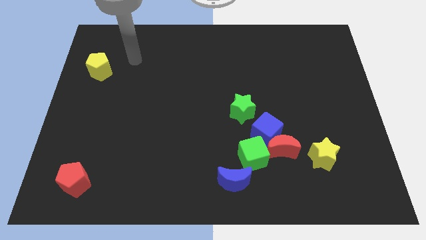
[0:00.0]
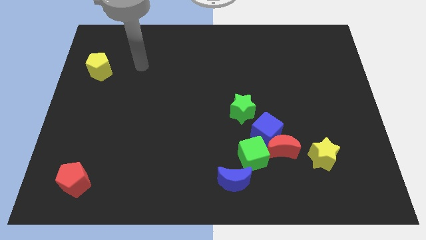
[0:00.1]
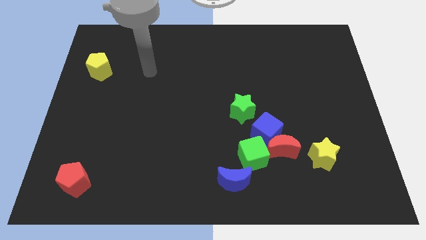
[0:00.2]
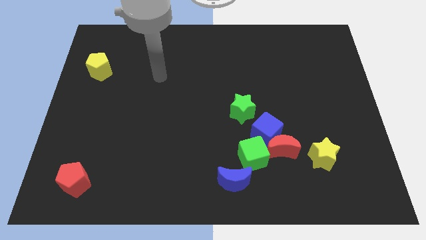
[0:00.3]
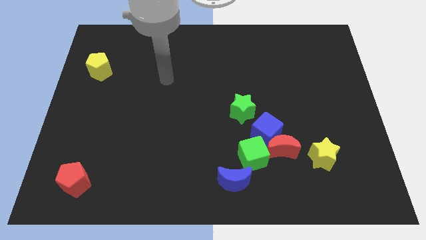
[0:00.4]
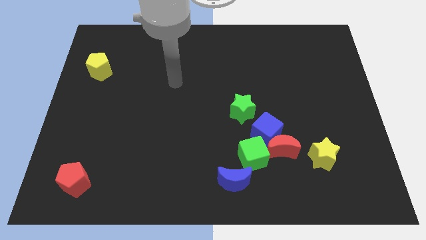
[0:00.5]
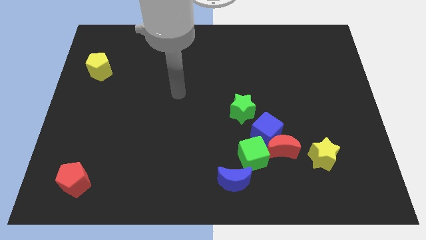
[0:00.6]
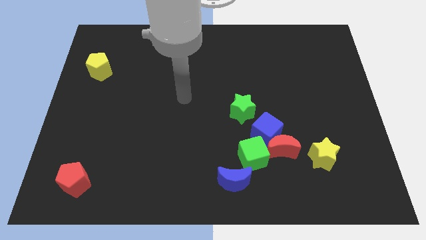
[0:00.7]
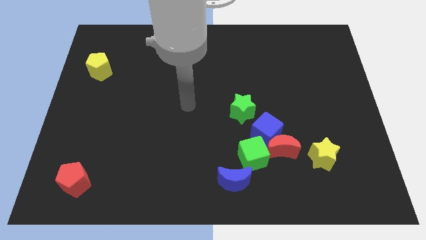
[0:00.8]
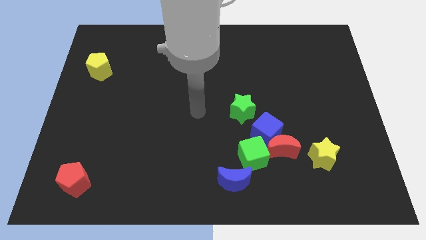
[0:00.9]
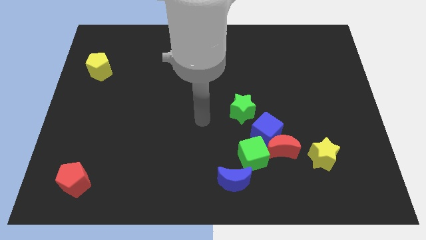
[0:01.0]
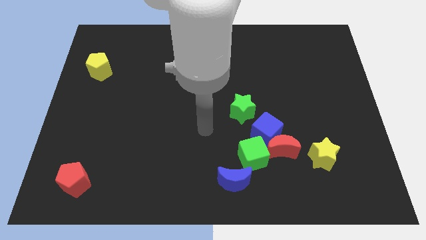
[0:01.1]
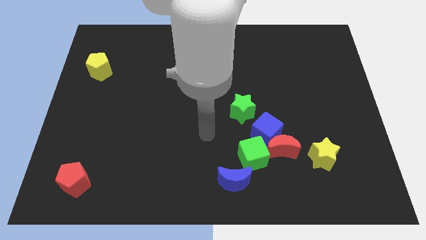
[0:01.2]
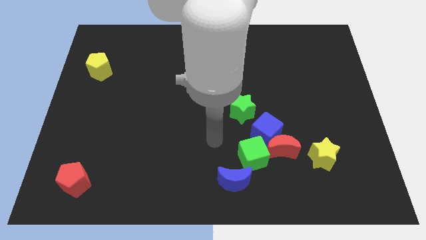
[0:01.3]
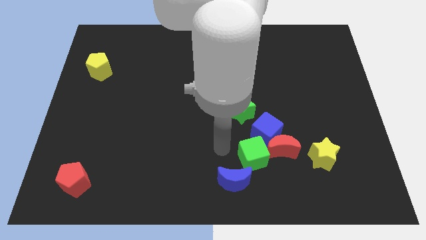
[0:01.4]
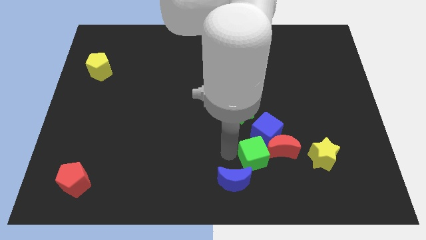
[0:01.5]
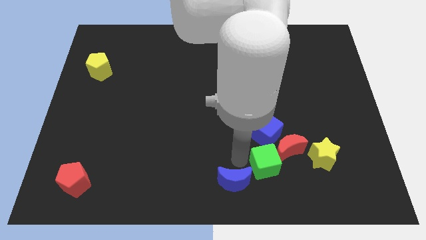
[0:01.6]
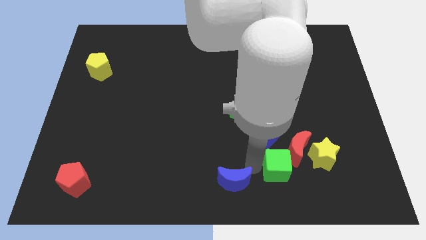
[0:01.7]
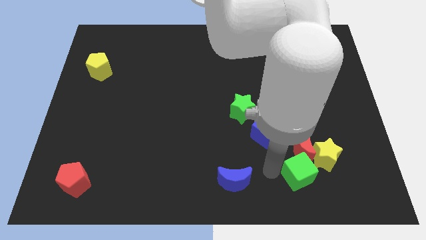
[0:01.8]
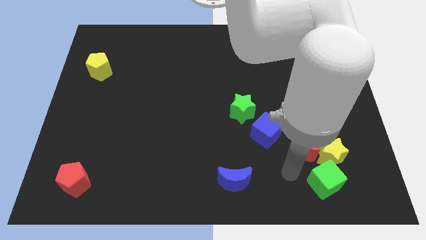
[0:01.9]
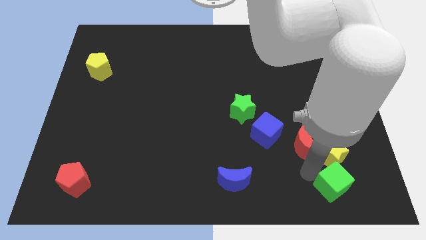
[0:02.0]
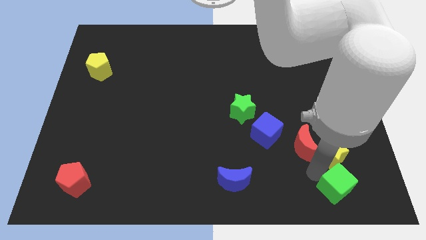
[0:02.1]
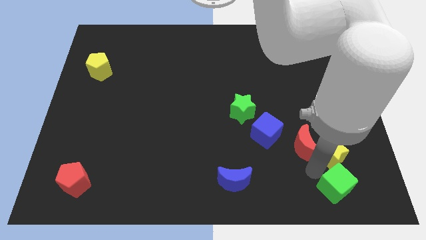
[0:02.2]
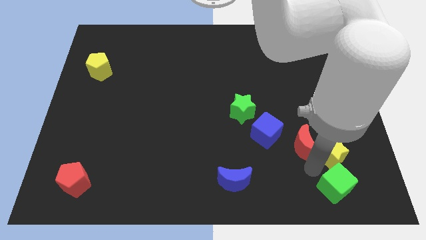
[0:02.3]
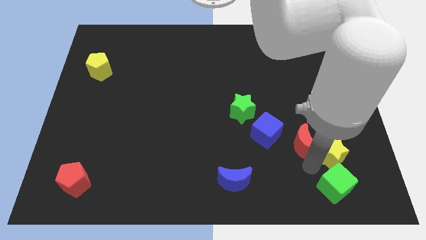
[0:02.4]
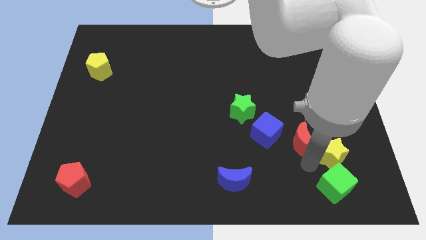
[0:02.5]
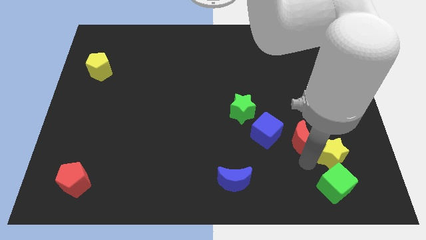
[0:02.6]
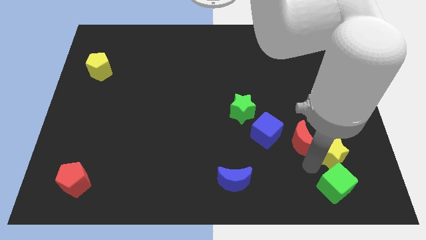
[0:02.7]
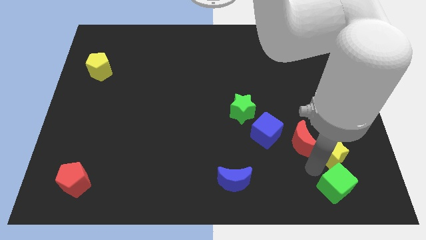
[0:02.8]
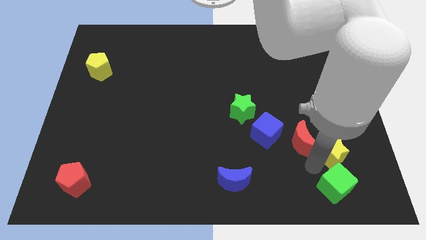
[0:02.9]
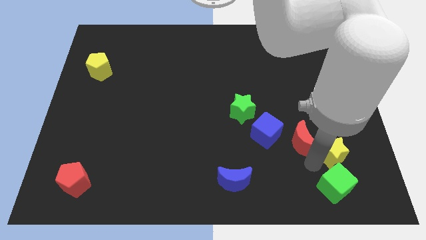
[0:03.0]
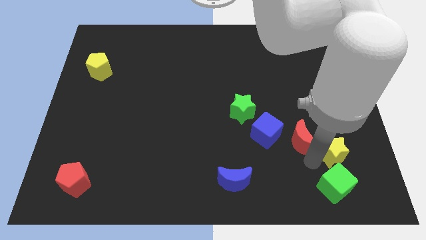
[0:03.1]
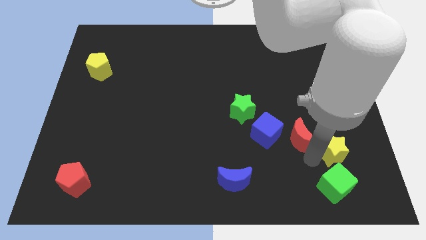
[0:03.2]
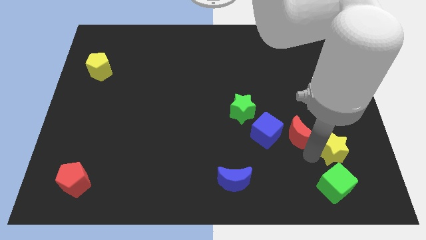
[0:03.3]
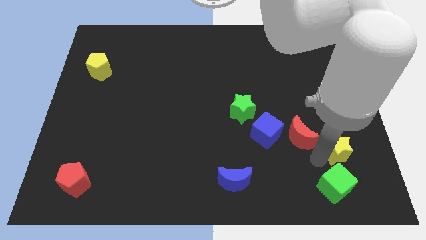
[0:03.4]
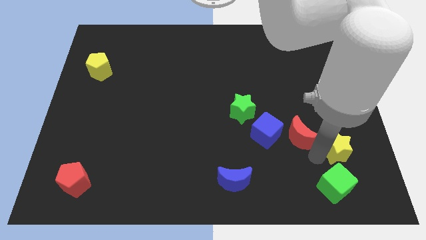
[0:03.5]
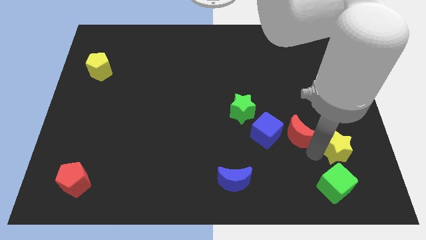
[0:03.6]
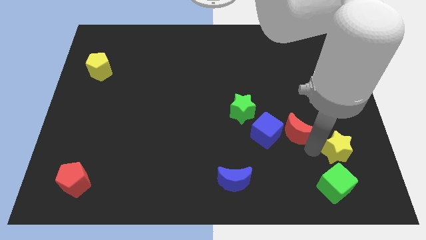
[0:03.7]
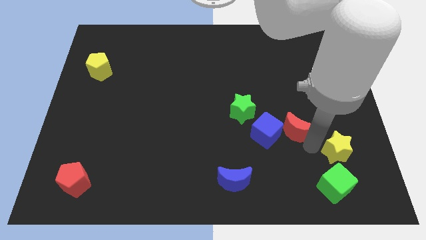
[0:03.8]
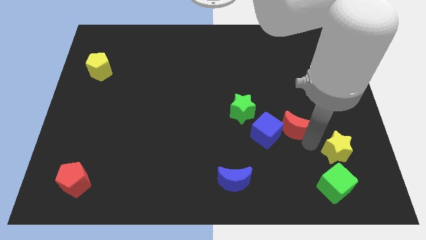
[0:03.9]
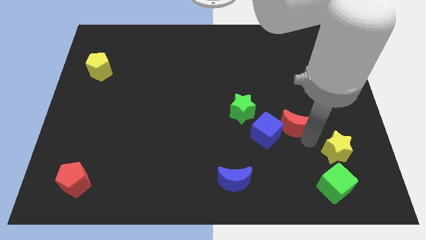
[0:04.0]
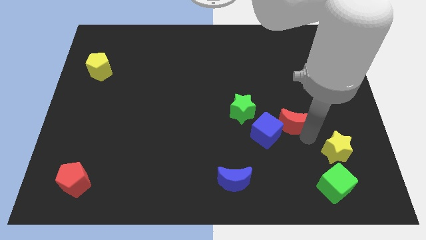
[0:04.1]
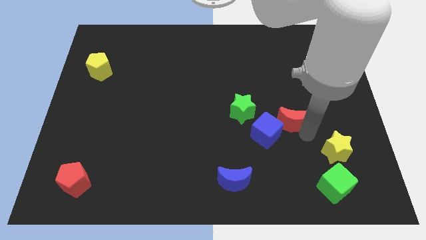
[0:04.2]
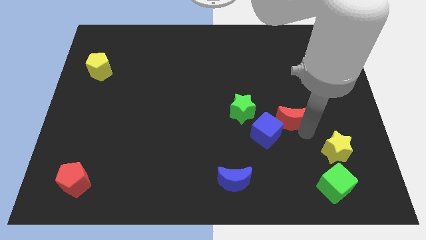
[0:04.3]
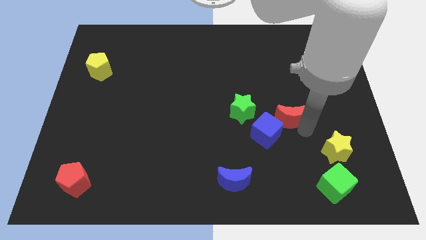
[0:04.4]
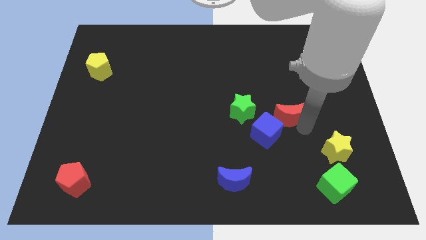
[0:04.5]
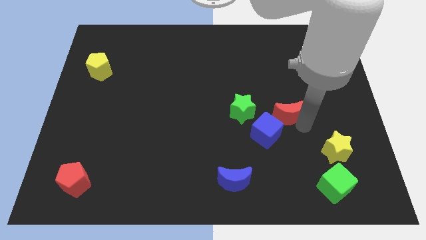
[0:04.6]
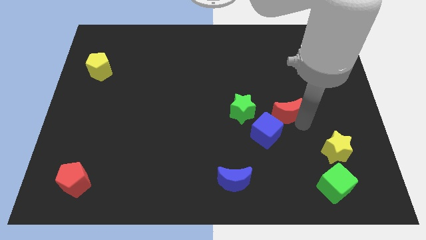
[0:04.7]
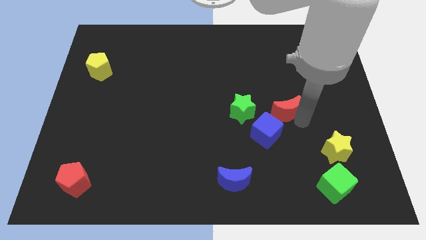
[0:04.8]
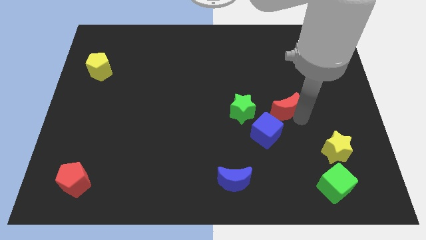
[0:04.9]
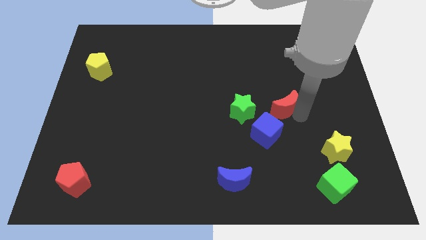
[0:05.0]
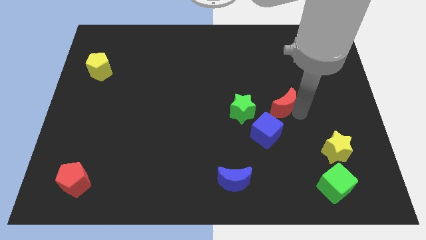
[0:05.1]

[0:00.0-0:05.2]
put the red moon to the top side of the blue cube

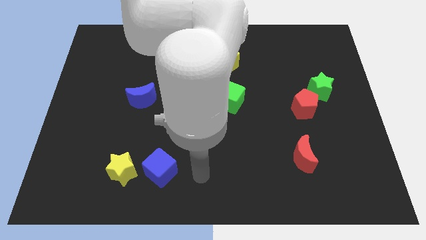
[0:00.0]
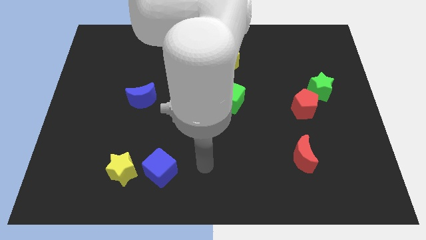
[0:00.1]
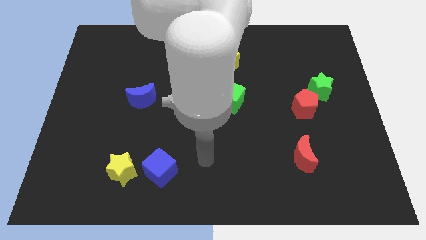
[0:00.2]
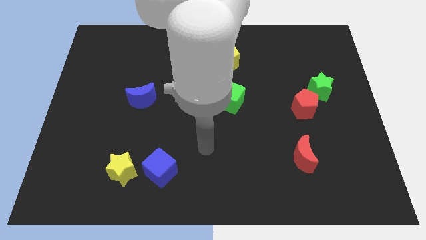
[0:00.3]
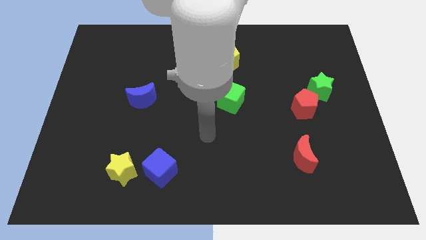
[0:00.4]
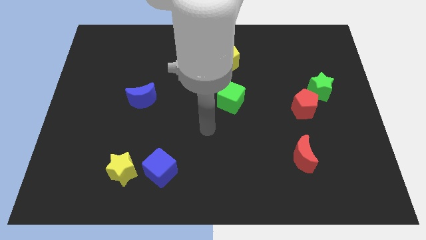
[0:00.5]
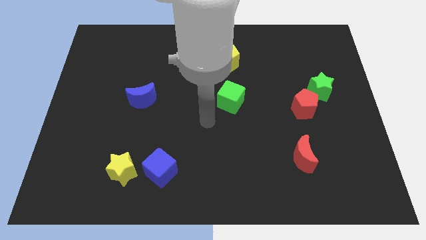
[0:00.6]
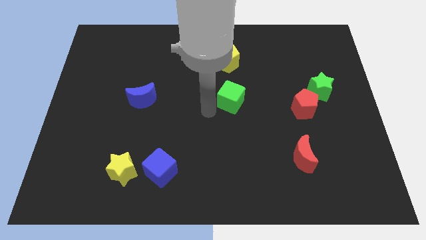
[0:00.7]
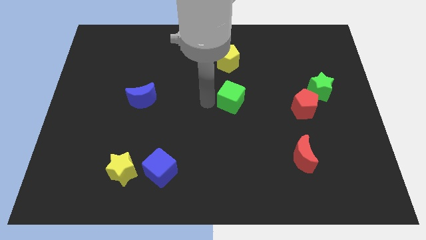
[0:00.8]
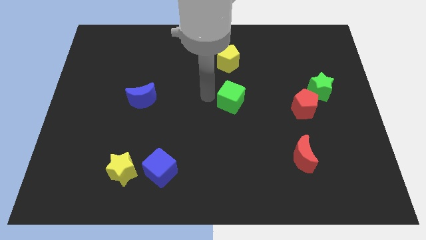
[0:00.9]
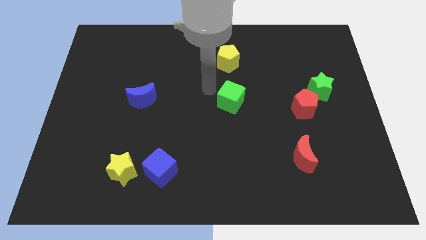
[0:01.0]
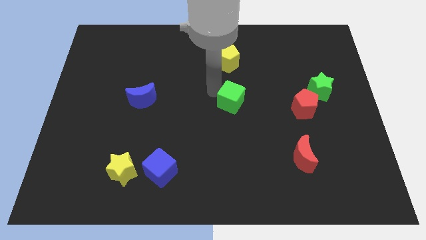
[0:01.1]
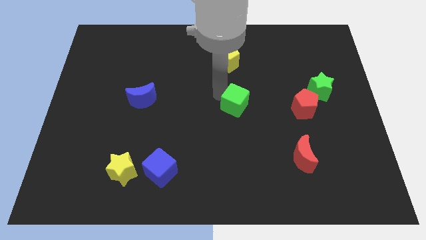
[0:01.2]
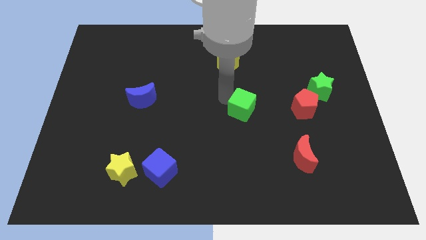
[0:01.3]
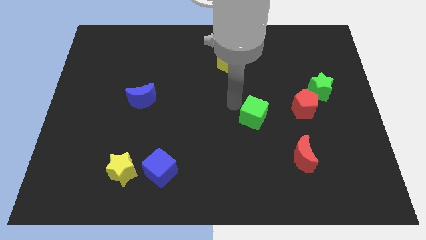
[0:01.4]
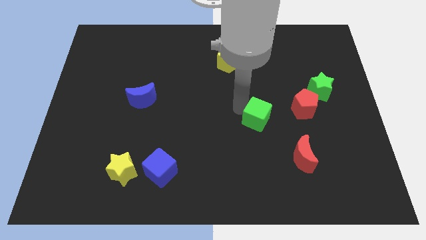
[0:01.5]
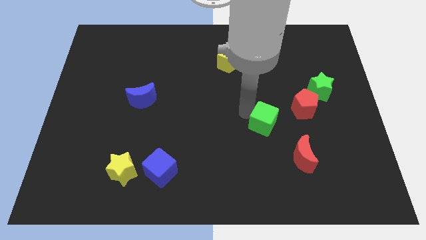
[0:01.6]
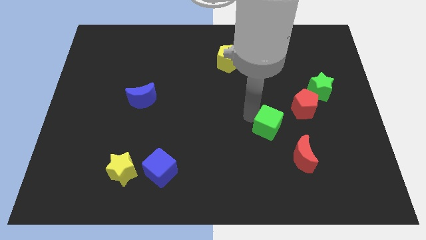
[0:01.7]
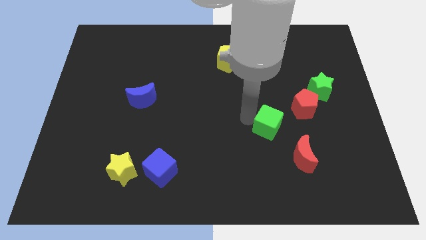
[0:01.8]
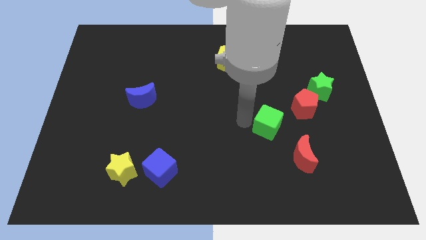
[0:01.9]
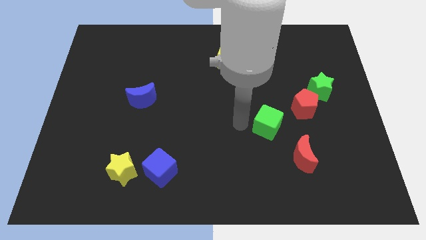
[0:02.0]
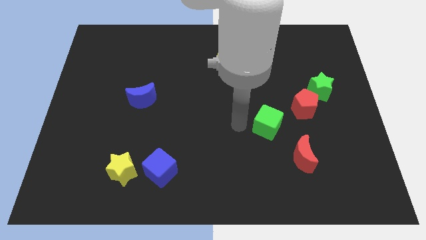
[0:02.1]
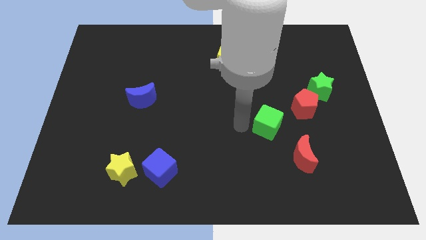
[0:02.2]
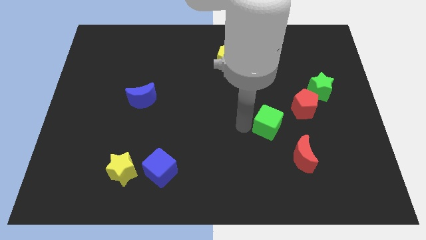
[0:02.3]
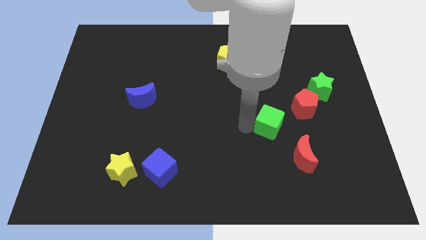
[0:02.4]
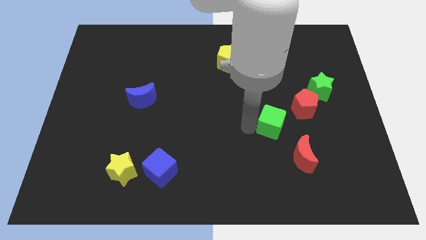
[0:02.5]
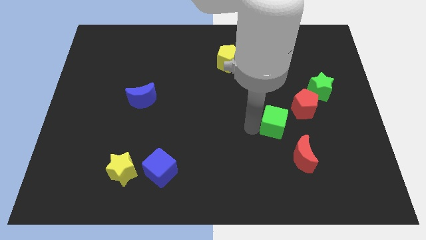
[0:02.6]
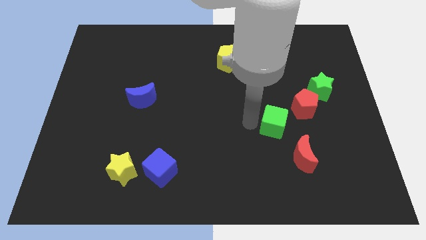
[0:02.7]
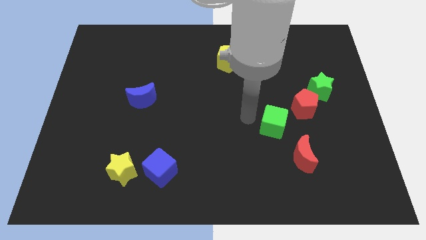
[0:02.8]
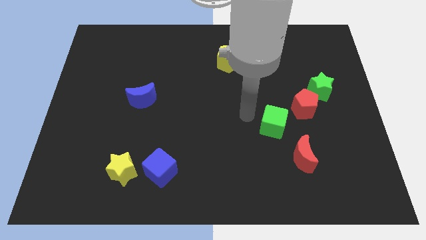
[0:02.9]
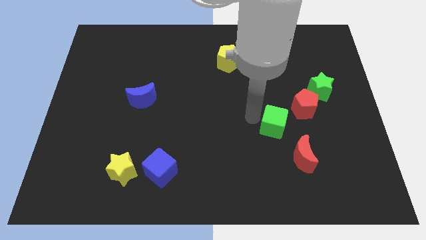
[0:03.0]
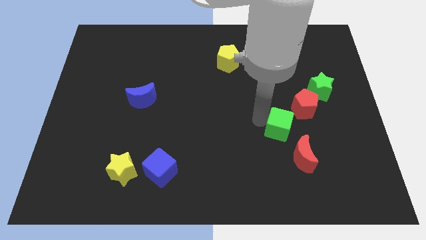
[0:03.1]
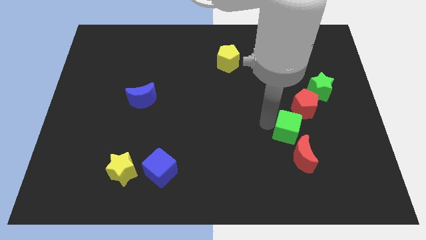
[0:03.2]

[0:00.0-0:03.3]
push the green cube to the bottom of the red pentagon
